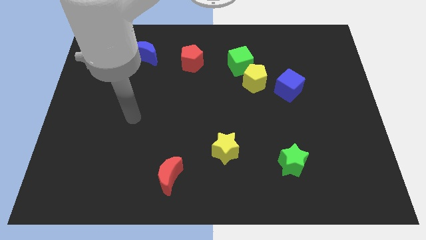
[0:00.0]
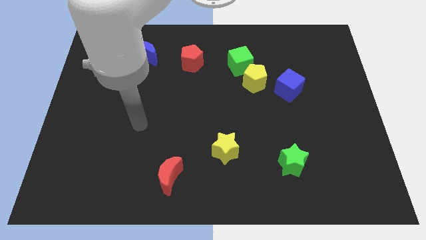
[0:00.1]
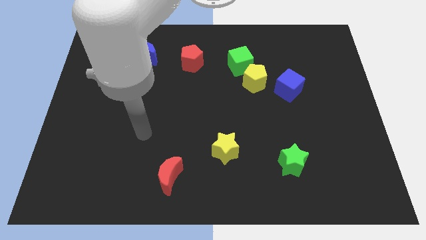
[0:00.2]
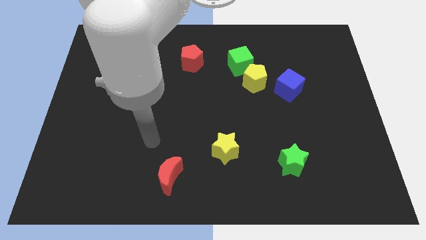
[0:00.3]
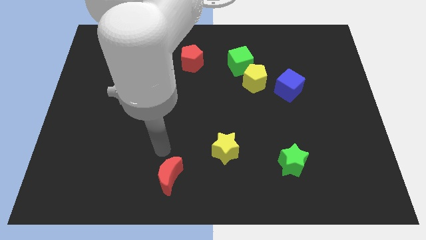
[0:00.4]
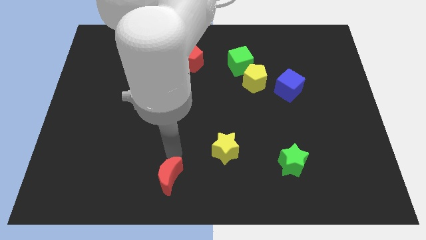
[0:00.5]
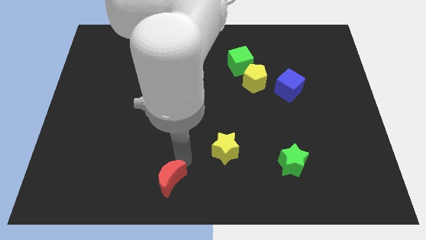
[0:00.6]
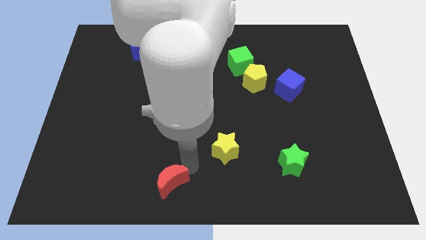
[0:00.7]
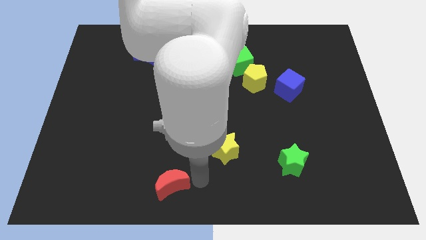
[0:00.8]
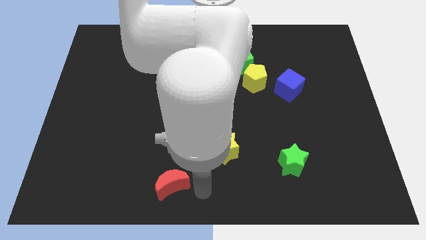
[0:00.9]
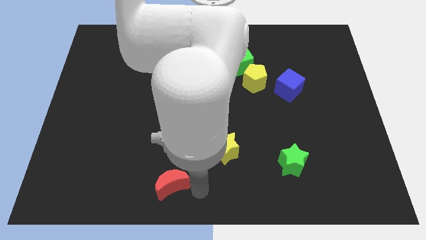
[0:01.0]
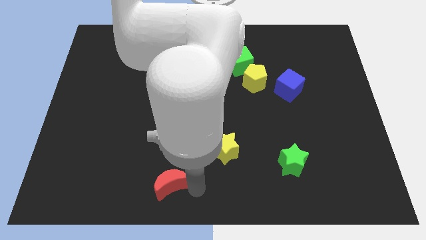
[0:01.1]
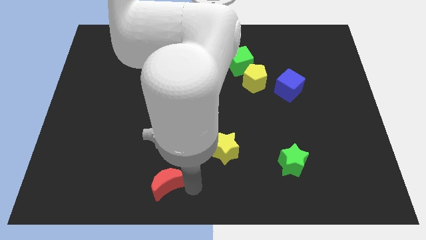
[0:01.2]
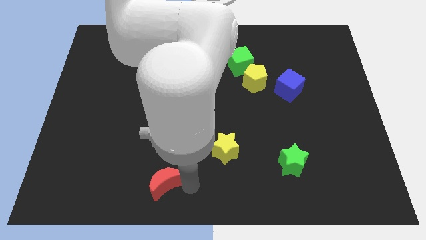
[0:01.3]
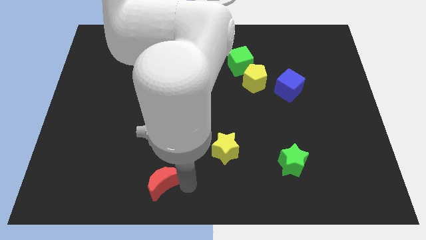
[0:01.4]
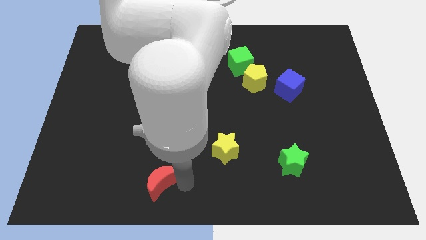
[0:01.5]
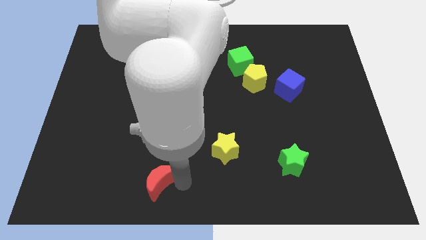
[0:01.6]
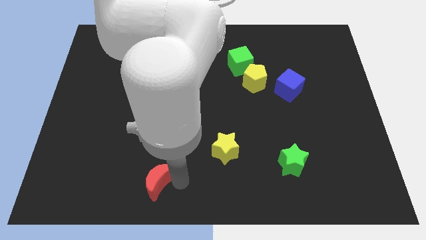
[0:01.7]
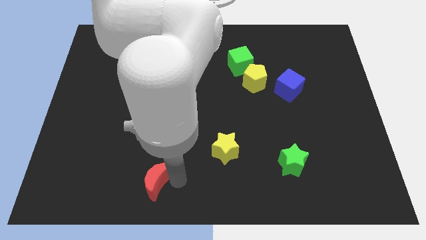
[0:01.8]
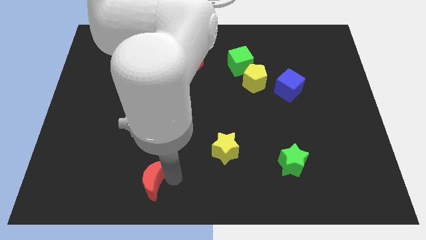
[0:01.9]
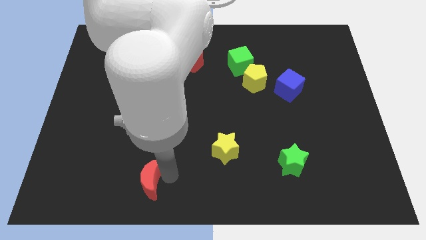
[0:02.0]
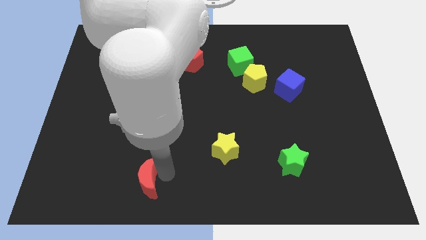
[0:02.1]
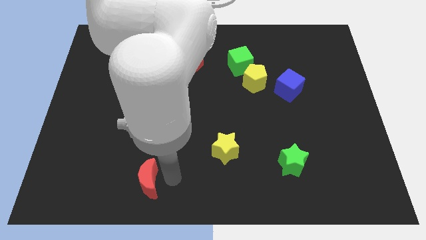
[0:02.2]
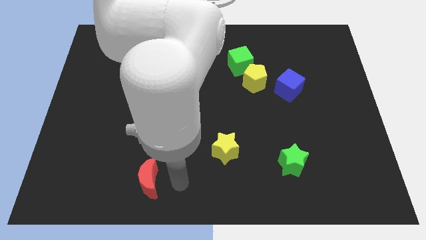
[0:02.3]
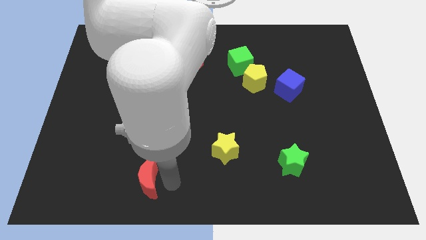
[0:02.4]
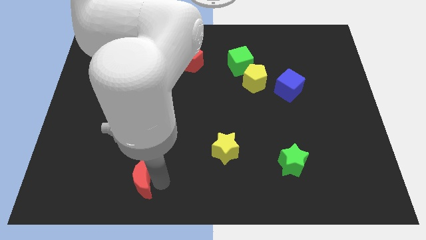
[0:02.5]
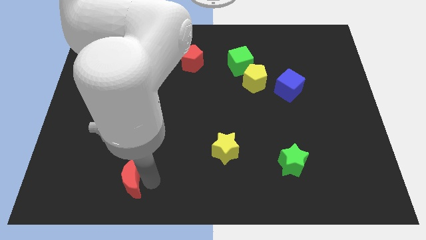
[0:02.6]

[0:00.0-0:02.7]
push the red moon to the left slightly

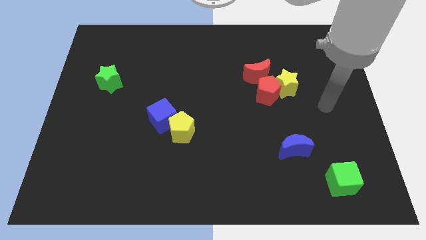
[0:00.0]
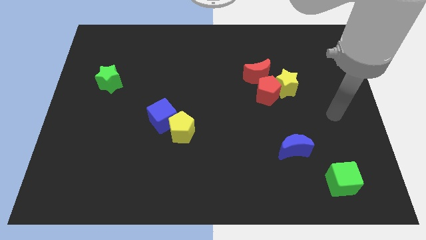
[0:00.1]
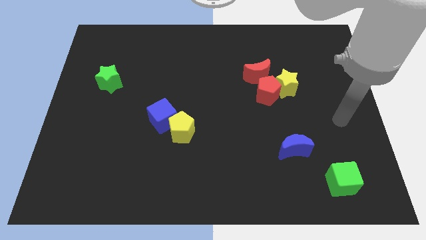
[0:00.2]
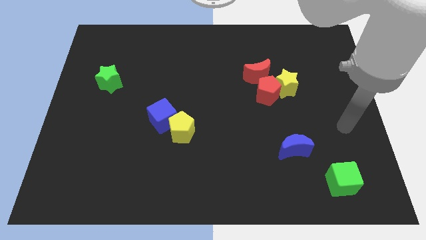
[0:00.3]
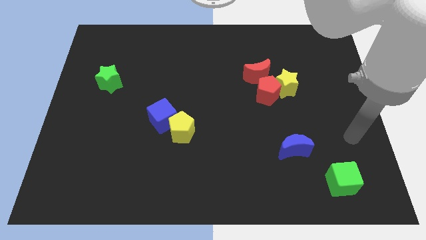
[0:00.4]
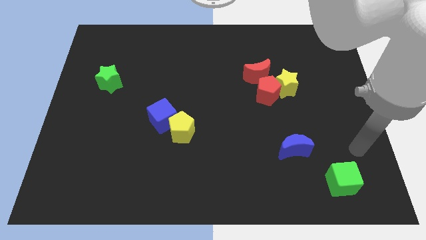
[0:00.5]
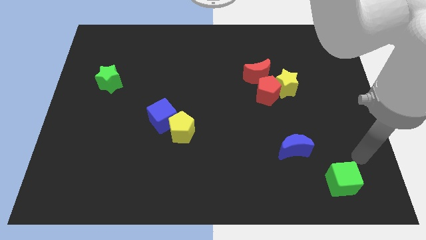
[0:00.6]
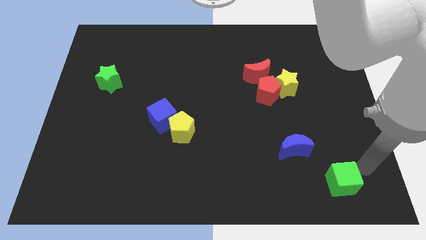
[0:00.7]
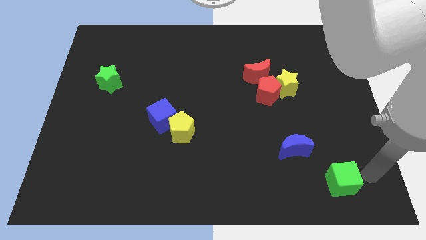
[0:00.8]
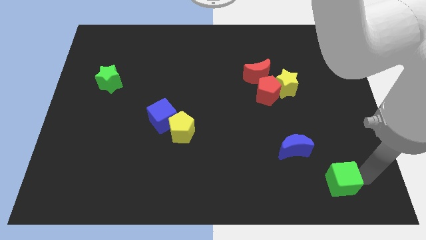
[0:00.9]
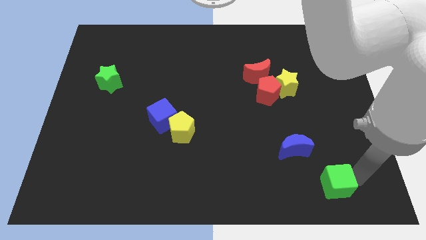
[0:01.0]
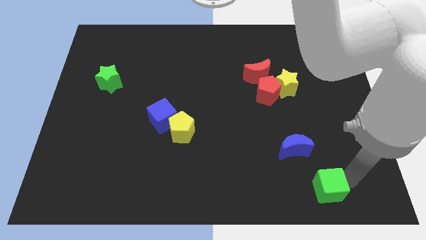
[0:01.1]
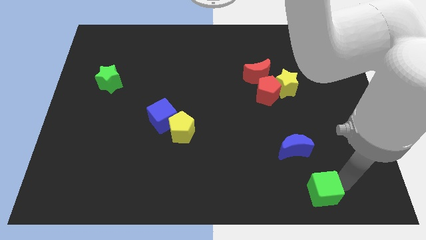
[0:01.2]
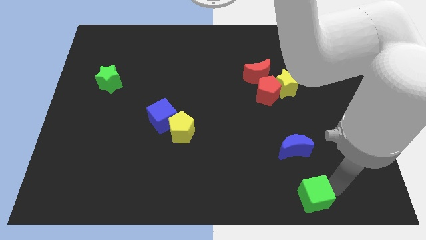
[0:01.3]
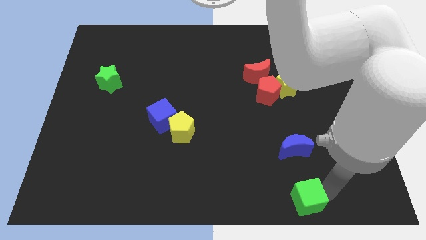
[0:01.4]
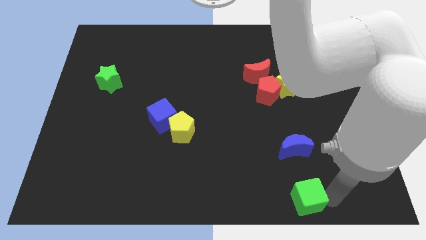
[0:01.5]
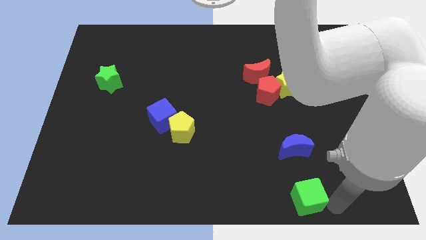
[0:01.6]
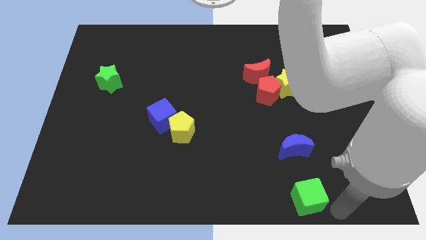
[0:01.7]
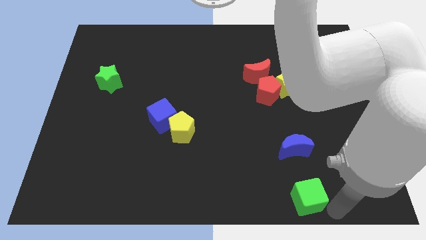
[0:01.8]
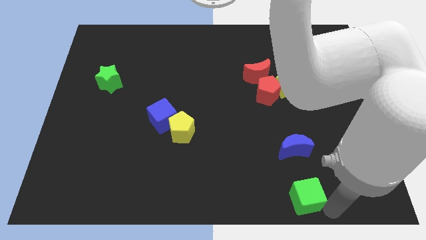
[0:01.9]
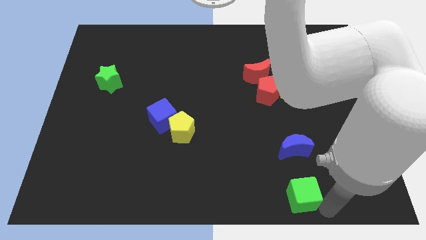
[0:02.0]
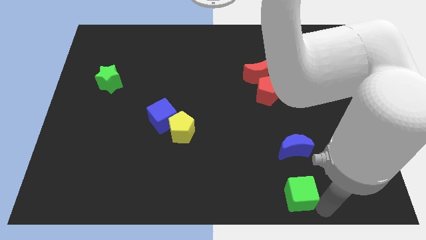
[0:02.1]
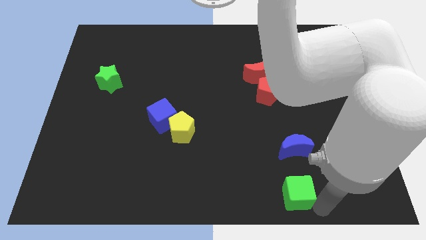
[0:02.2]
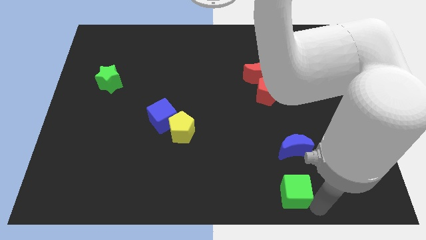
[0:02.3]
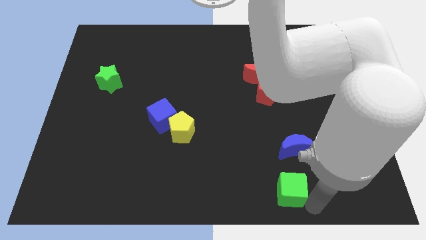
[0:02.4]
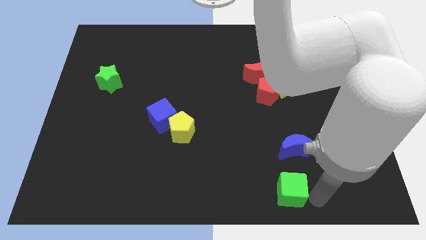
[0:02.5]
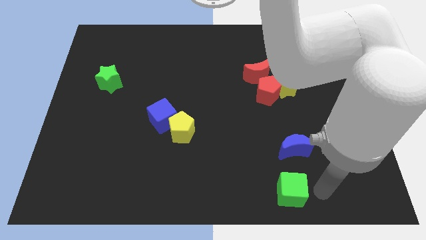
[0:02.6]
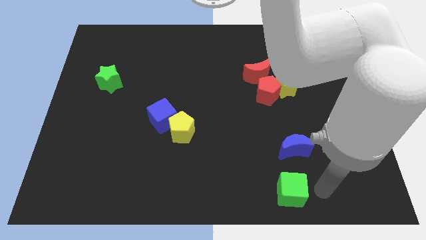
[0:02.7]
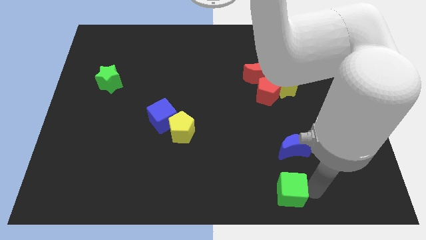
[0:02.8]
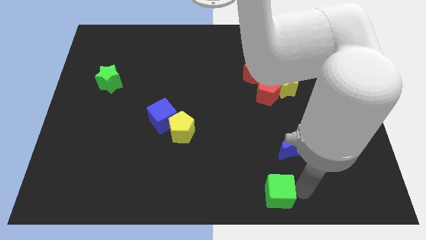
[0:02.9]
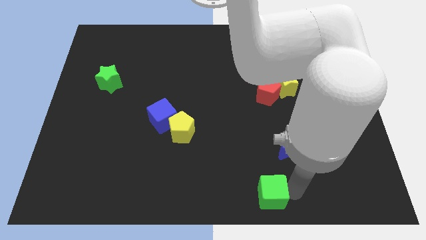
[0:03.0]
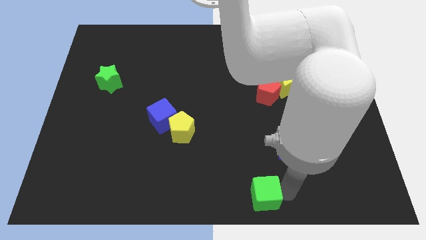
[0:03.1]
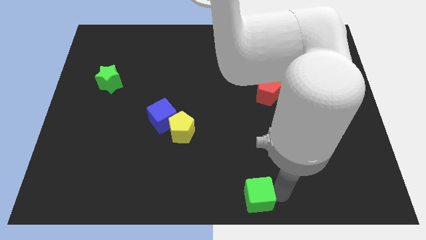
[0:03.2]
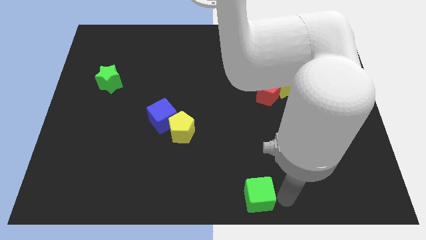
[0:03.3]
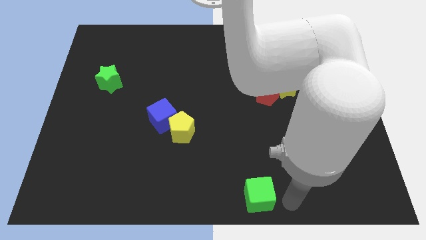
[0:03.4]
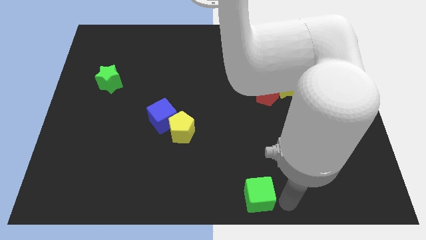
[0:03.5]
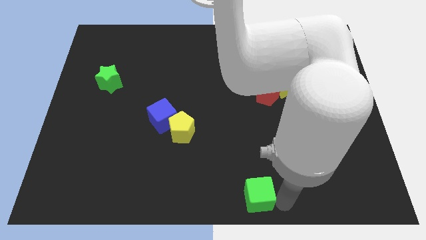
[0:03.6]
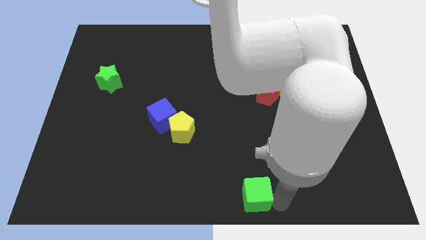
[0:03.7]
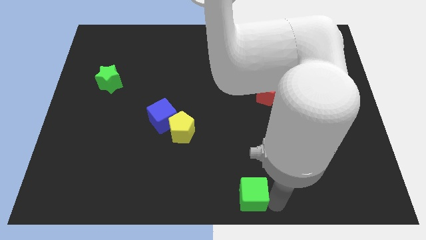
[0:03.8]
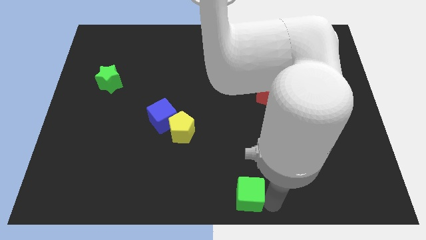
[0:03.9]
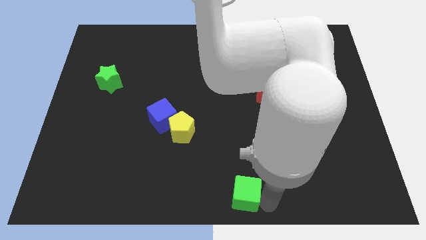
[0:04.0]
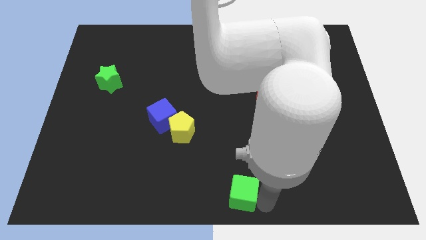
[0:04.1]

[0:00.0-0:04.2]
push the green cube left

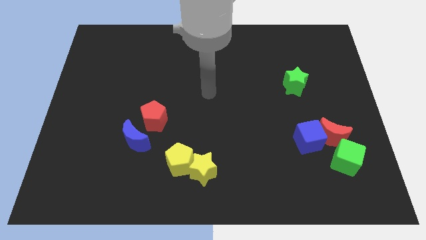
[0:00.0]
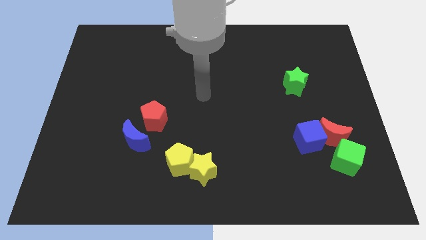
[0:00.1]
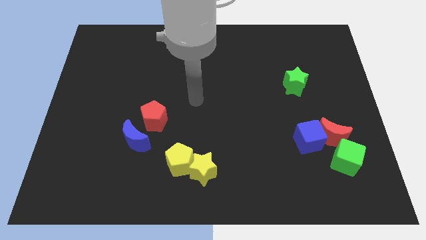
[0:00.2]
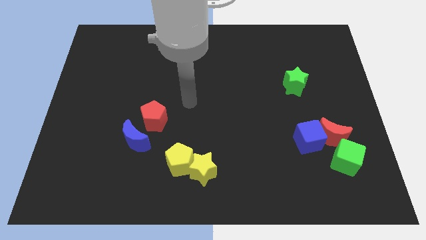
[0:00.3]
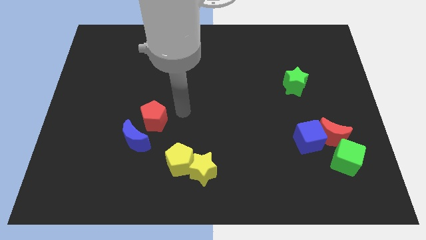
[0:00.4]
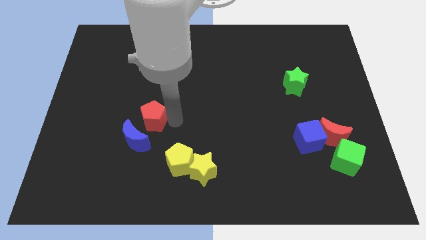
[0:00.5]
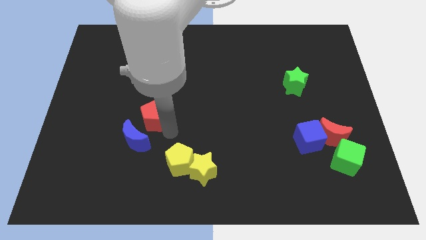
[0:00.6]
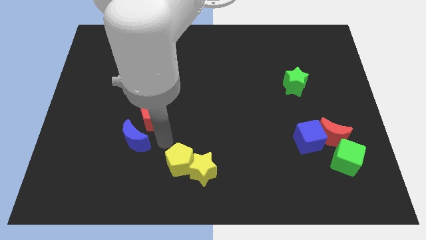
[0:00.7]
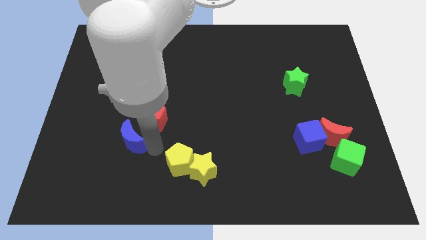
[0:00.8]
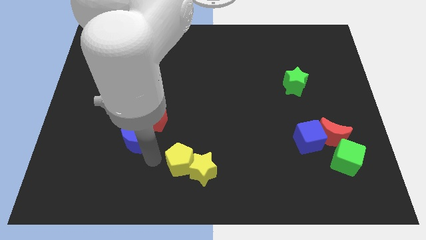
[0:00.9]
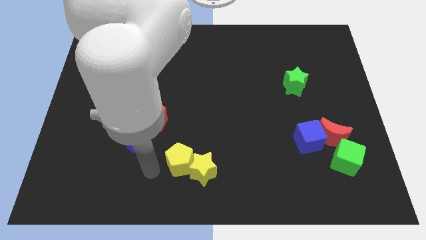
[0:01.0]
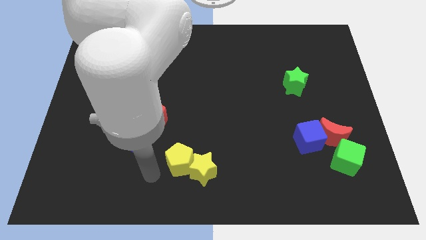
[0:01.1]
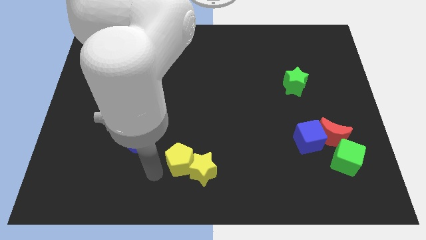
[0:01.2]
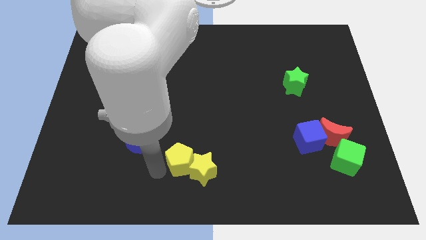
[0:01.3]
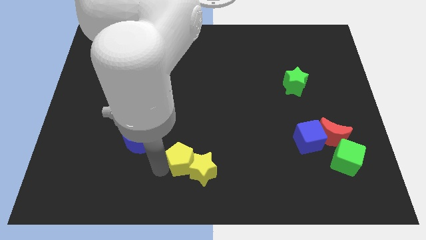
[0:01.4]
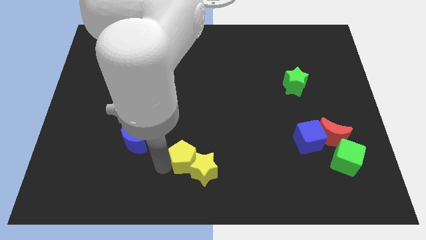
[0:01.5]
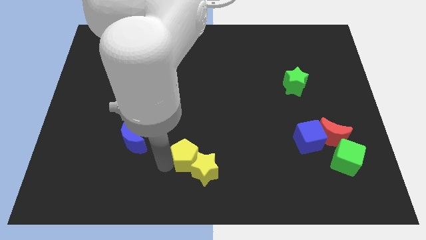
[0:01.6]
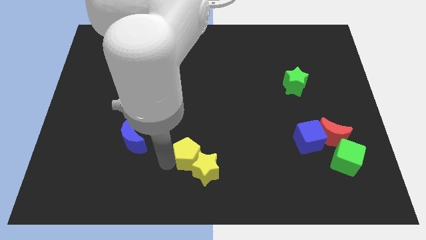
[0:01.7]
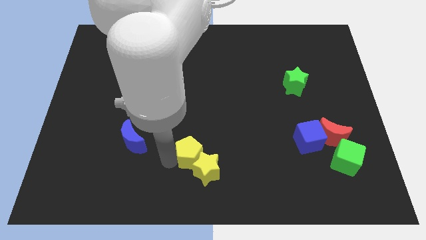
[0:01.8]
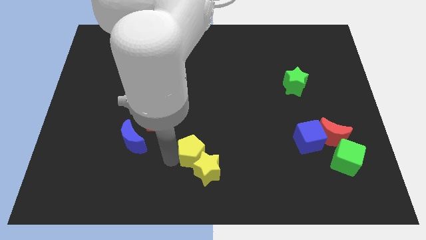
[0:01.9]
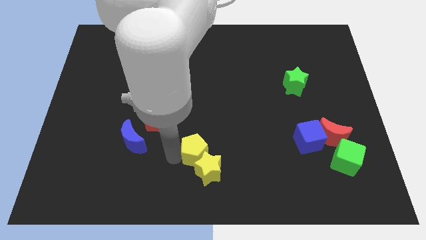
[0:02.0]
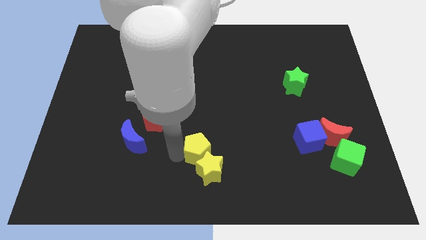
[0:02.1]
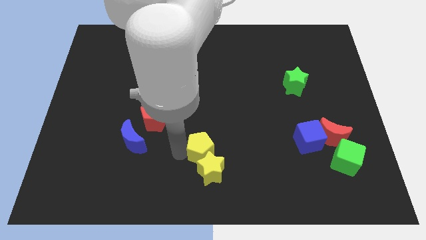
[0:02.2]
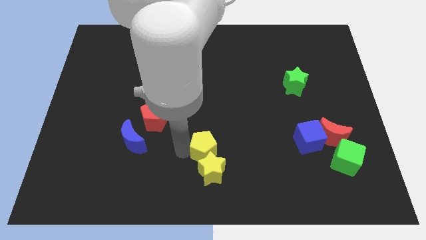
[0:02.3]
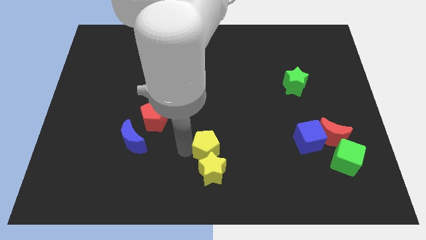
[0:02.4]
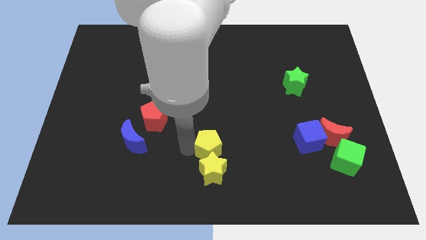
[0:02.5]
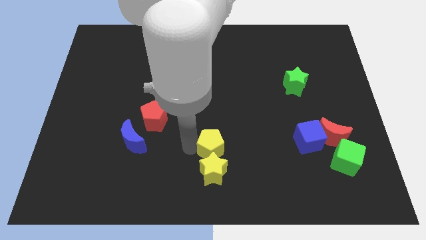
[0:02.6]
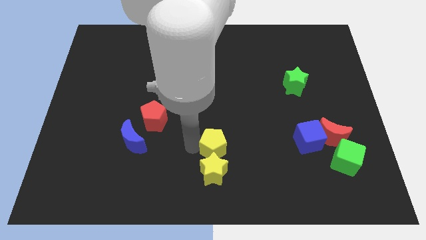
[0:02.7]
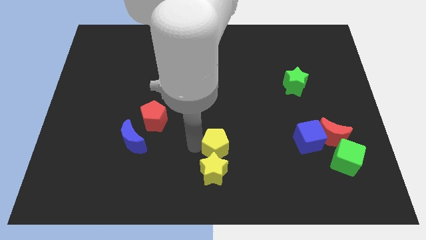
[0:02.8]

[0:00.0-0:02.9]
move the yellow pentagon to the right a bit
